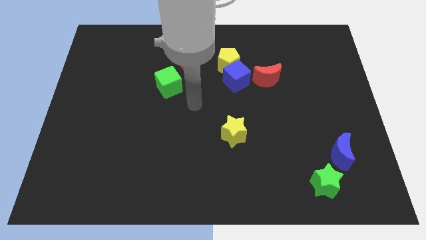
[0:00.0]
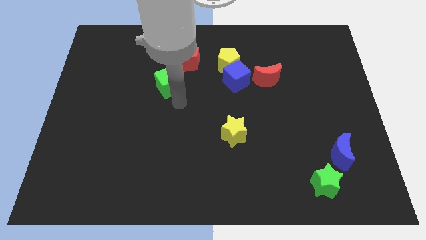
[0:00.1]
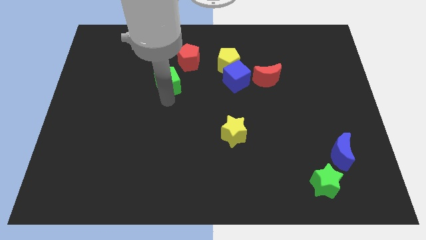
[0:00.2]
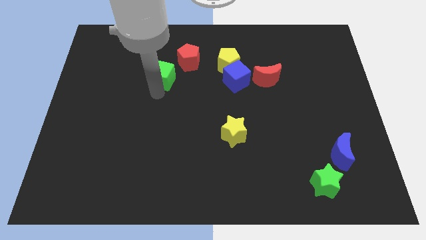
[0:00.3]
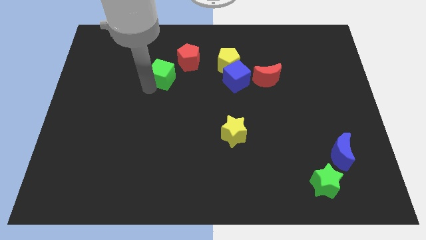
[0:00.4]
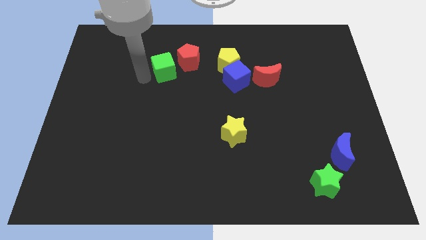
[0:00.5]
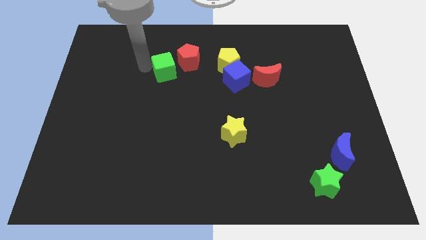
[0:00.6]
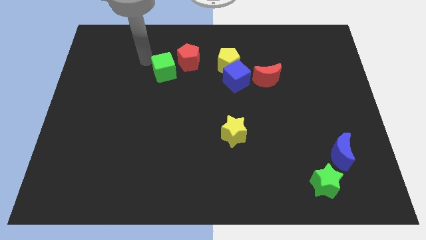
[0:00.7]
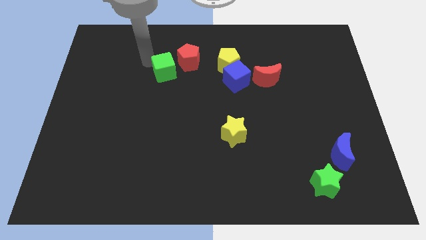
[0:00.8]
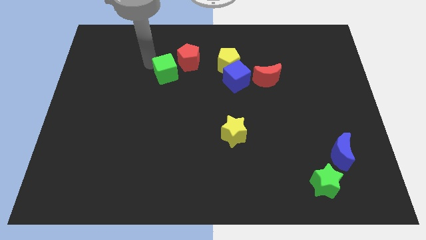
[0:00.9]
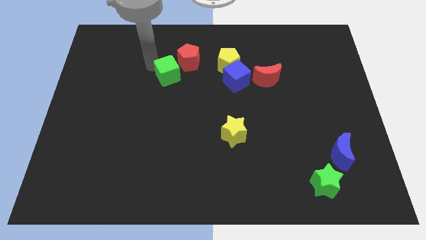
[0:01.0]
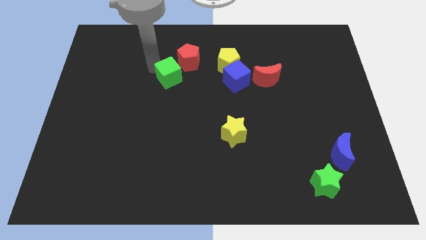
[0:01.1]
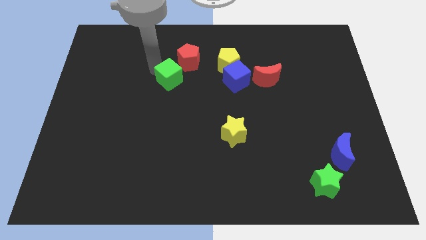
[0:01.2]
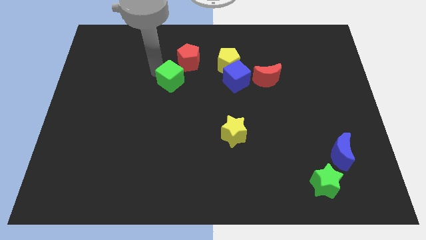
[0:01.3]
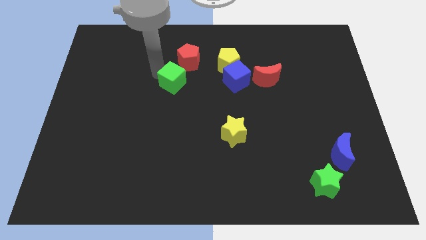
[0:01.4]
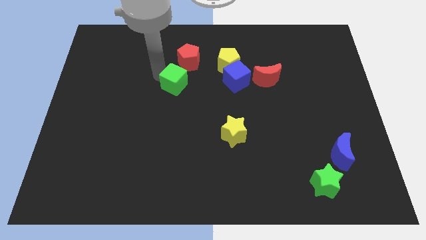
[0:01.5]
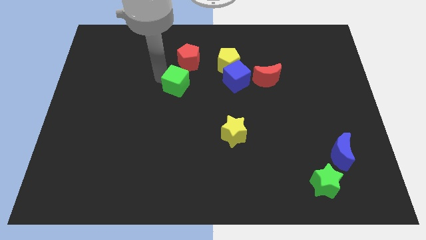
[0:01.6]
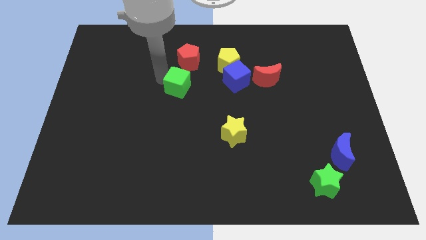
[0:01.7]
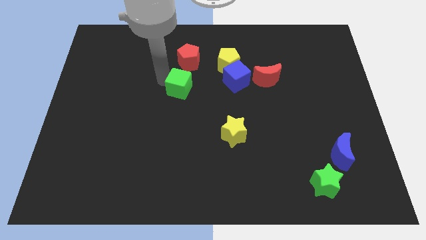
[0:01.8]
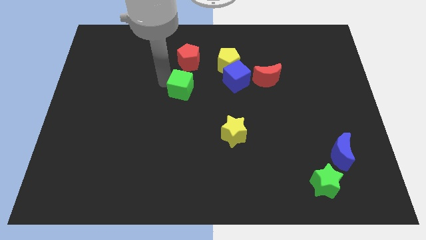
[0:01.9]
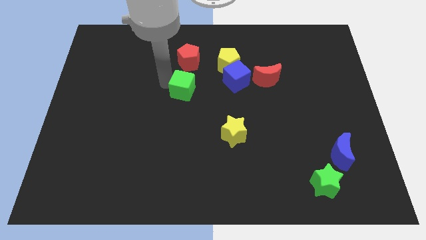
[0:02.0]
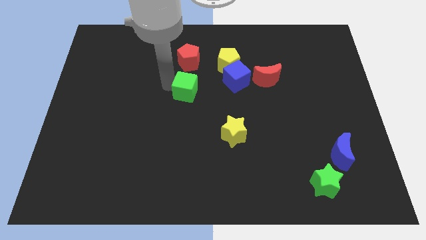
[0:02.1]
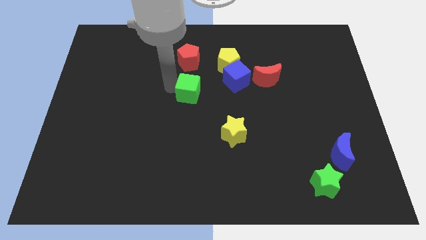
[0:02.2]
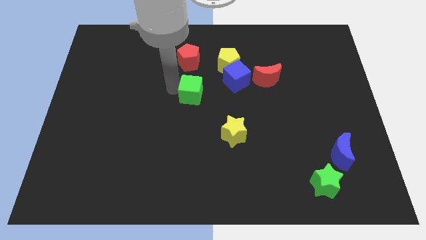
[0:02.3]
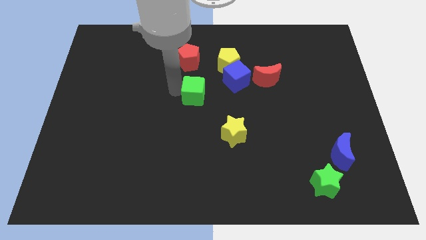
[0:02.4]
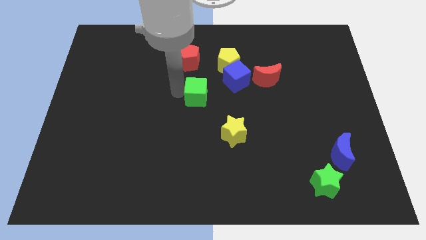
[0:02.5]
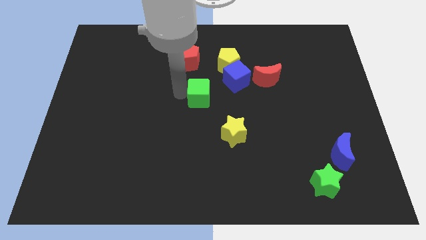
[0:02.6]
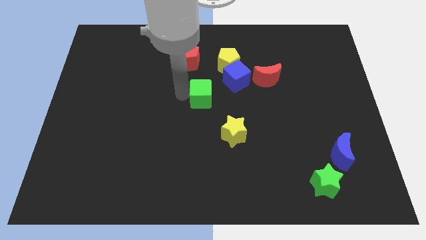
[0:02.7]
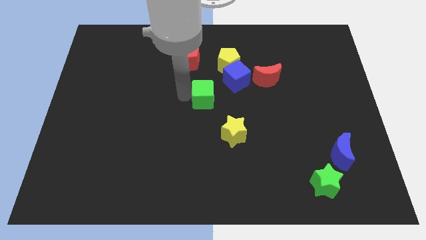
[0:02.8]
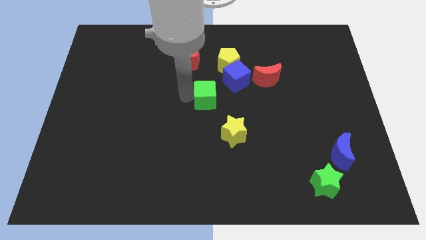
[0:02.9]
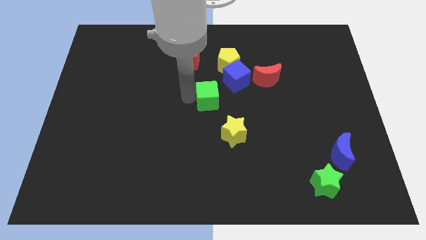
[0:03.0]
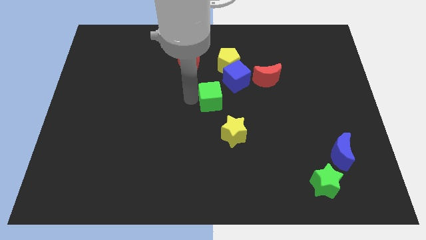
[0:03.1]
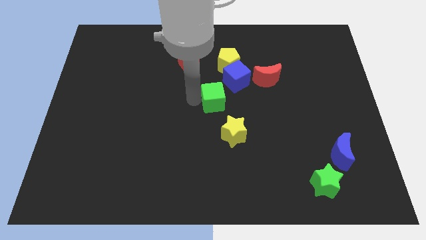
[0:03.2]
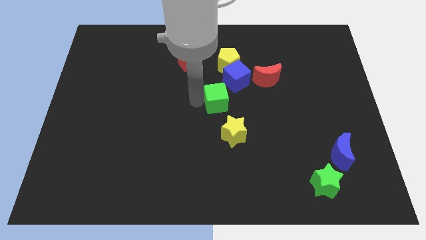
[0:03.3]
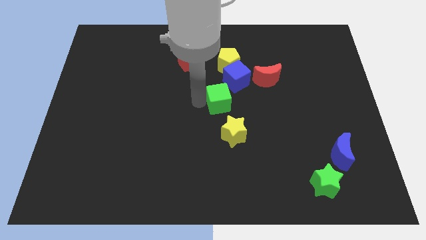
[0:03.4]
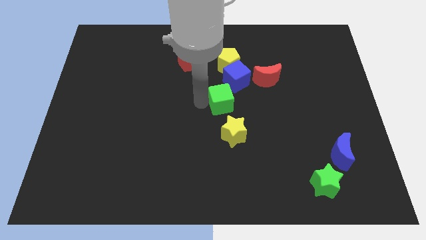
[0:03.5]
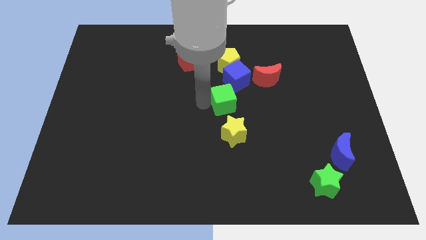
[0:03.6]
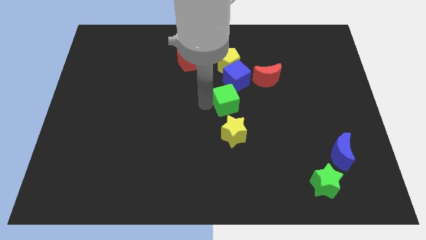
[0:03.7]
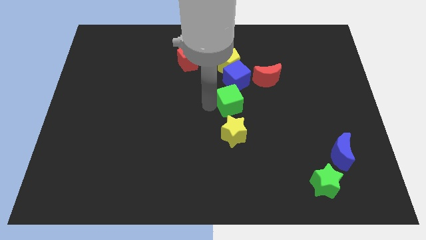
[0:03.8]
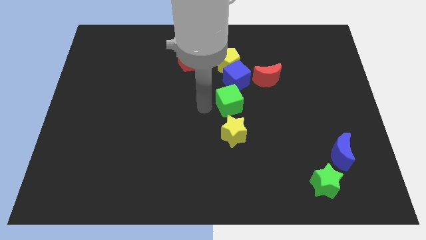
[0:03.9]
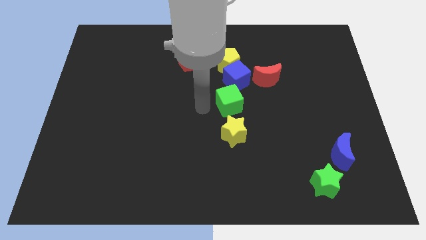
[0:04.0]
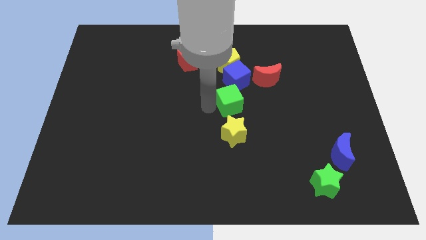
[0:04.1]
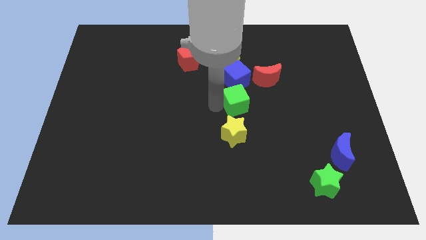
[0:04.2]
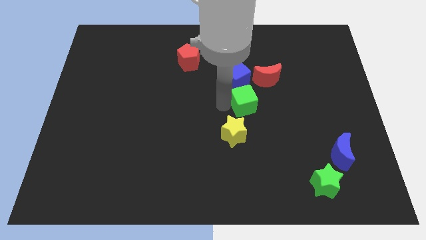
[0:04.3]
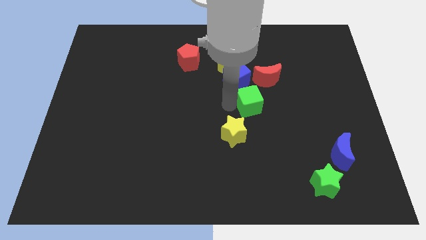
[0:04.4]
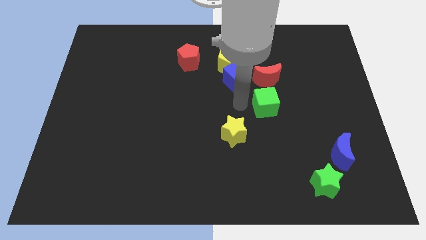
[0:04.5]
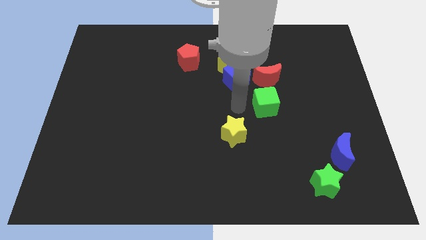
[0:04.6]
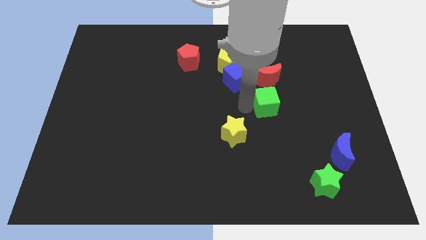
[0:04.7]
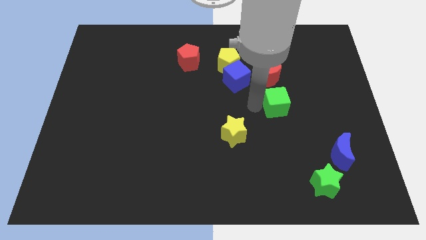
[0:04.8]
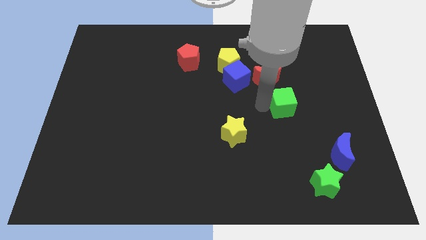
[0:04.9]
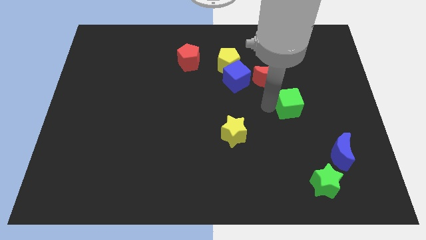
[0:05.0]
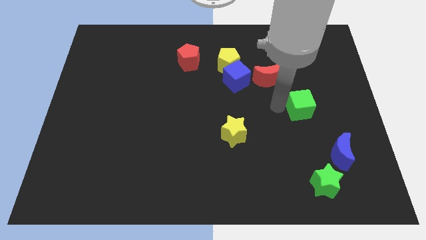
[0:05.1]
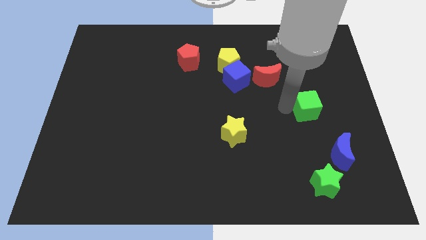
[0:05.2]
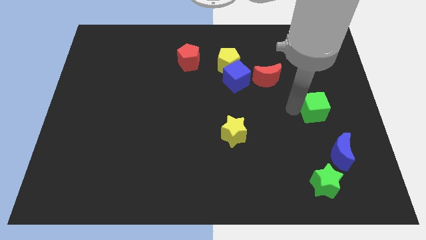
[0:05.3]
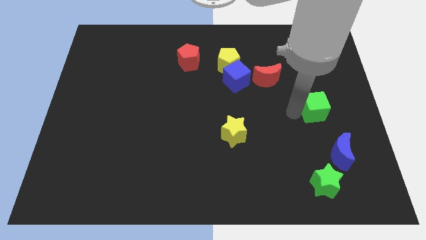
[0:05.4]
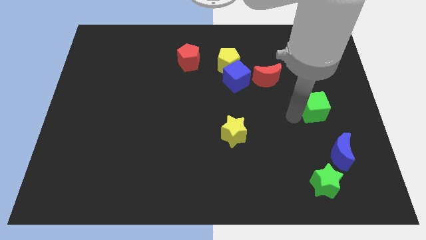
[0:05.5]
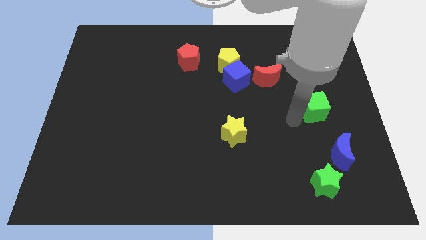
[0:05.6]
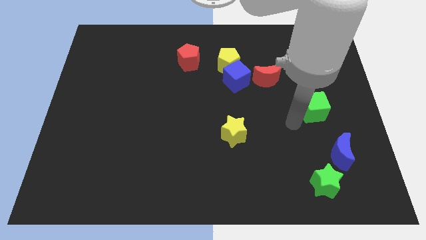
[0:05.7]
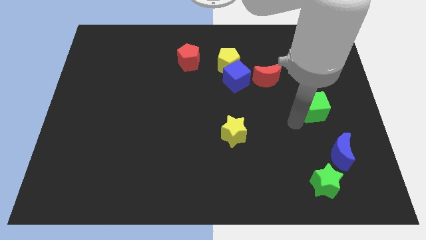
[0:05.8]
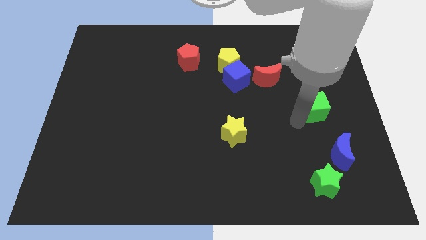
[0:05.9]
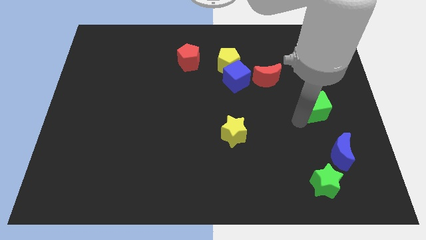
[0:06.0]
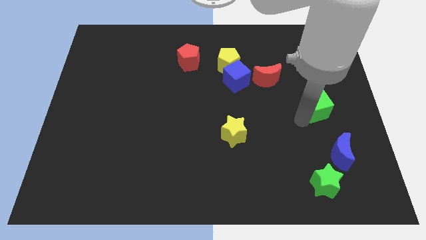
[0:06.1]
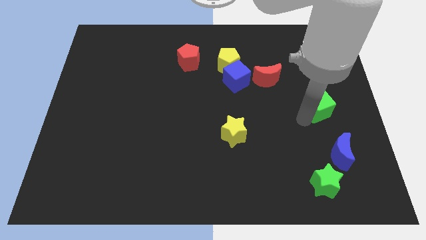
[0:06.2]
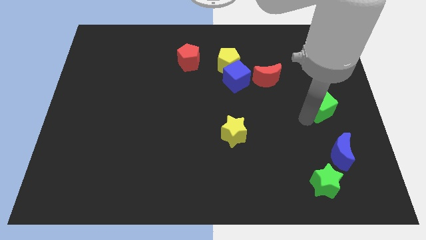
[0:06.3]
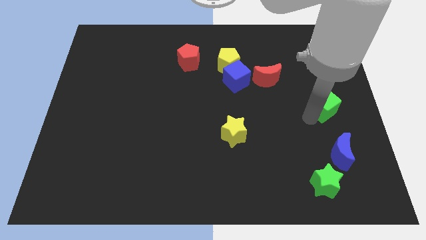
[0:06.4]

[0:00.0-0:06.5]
slide the green cube to the right side of the board

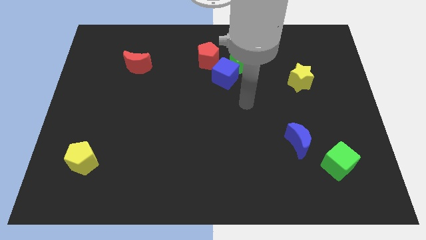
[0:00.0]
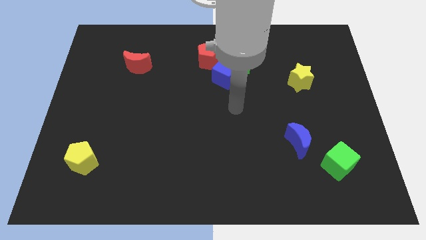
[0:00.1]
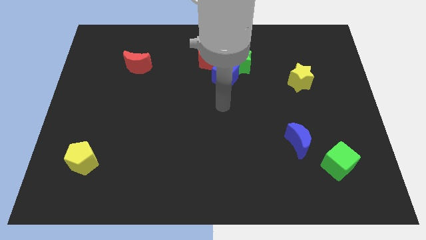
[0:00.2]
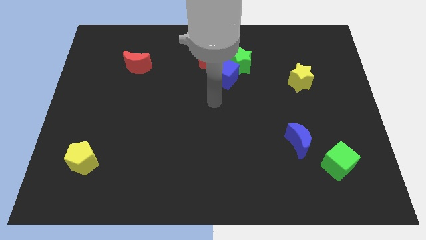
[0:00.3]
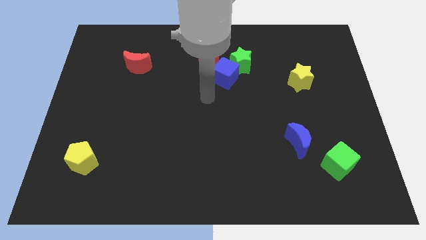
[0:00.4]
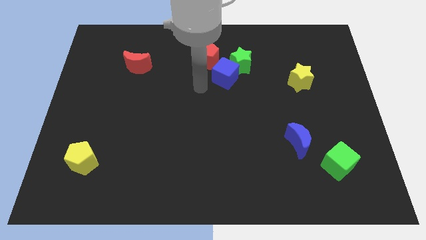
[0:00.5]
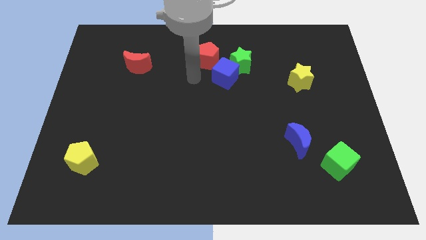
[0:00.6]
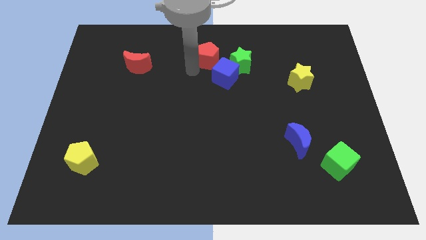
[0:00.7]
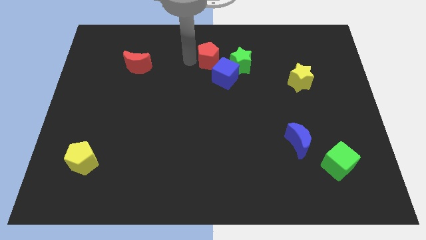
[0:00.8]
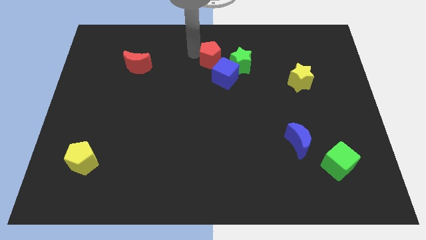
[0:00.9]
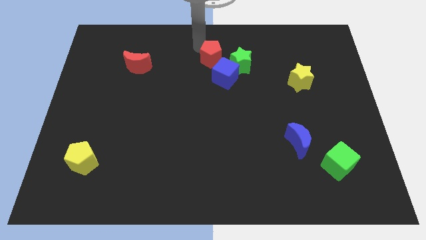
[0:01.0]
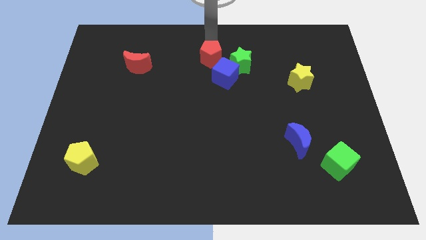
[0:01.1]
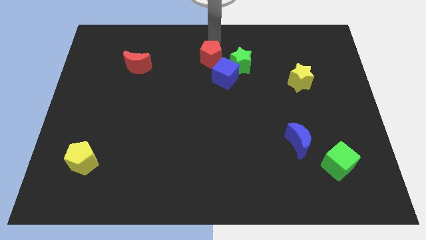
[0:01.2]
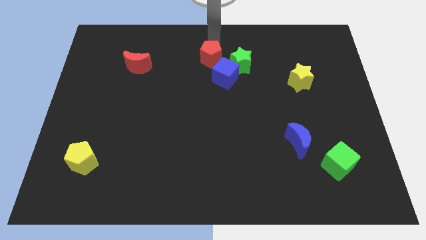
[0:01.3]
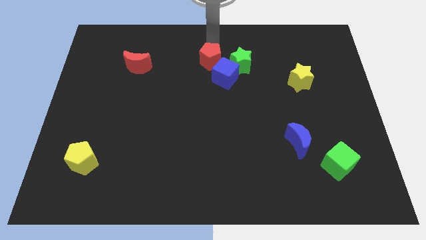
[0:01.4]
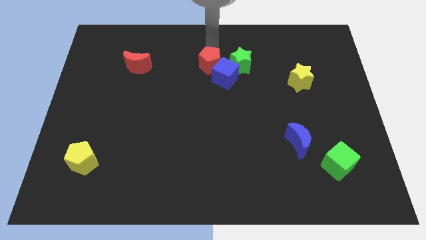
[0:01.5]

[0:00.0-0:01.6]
put the red pentagon to the middle of the board
